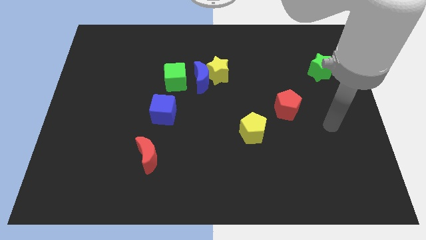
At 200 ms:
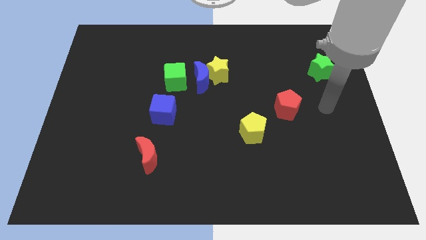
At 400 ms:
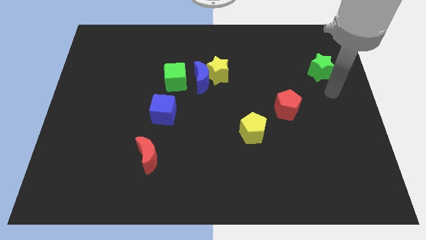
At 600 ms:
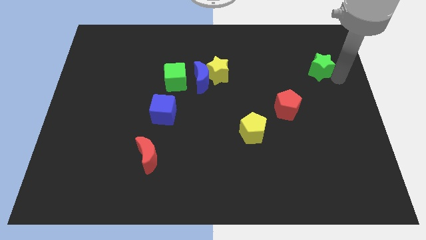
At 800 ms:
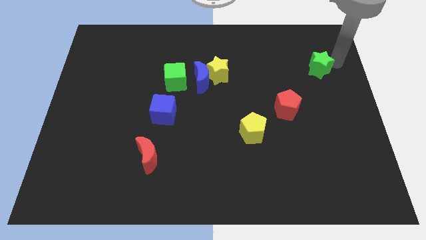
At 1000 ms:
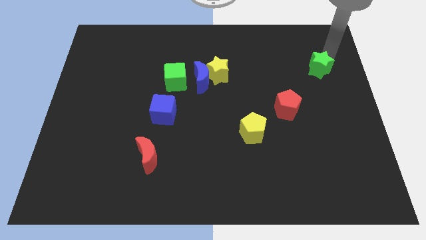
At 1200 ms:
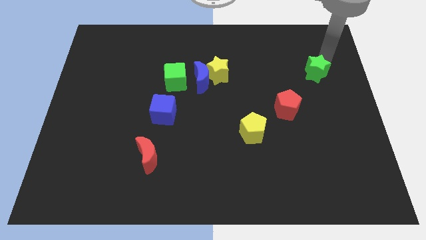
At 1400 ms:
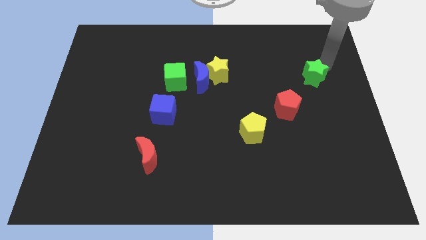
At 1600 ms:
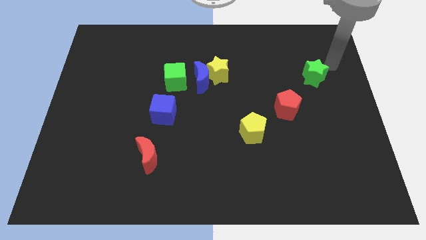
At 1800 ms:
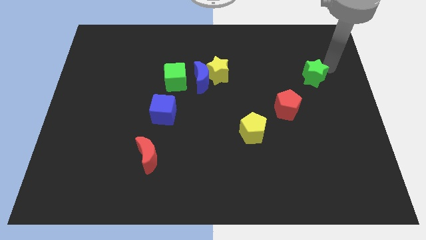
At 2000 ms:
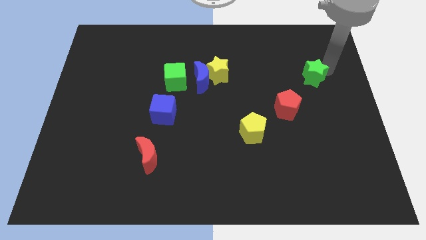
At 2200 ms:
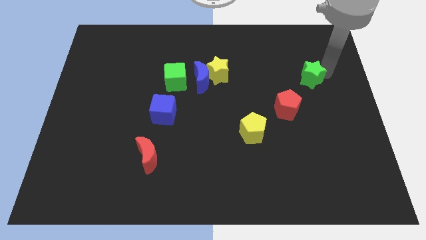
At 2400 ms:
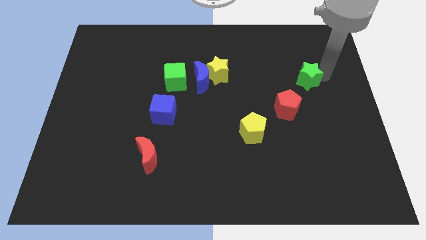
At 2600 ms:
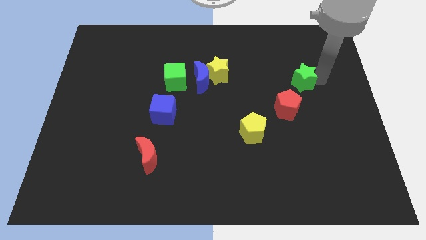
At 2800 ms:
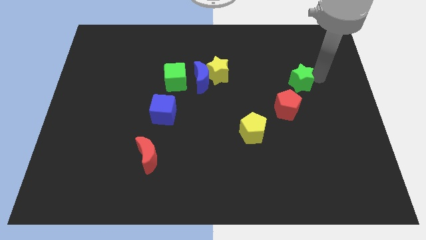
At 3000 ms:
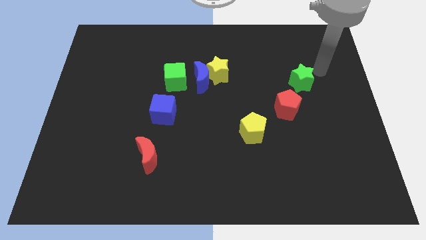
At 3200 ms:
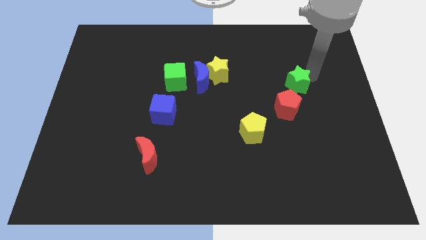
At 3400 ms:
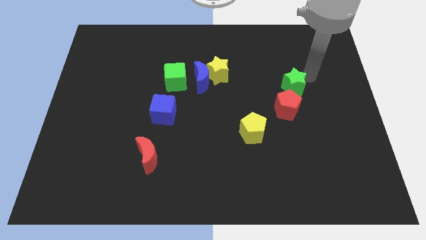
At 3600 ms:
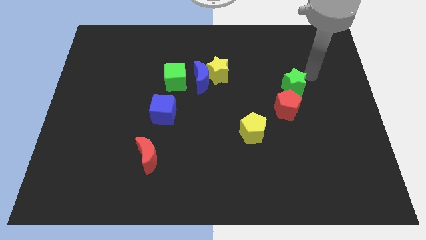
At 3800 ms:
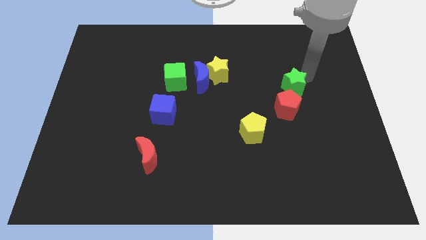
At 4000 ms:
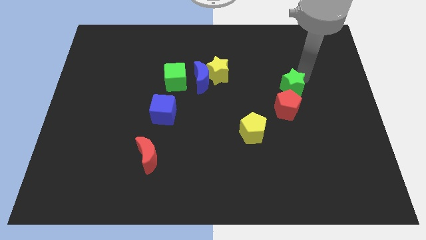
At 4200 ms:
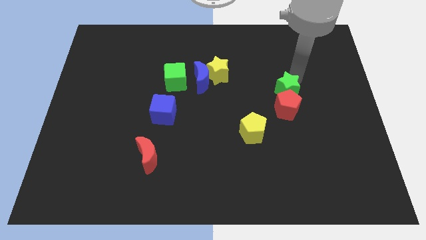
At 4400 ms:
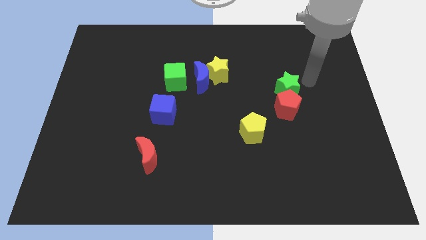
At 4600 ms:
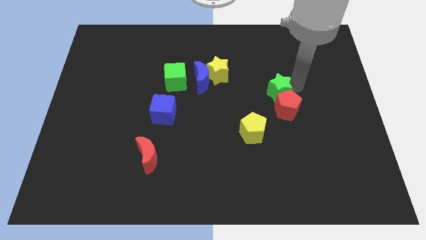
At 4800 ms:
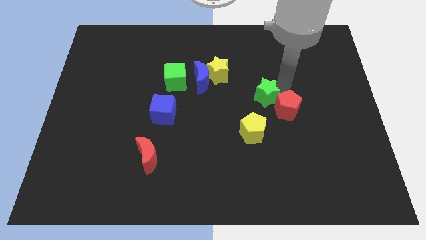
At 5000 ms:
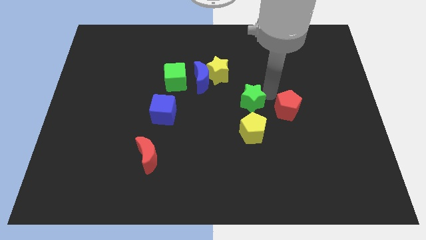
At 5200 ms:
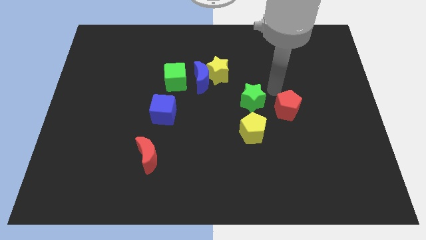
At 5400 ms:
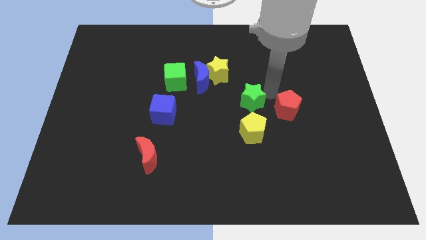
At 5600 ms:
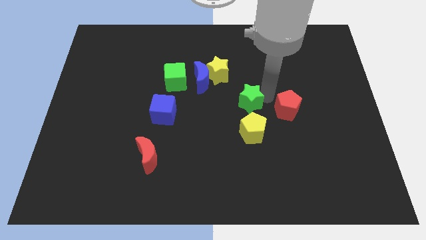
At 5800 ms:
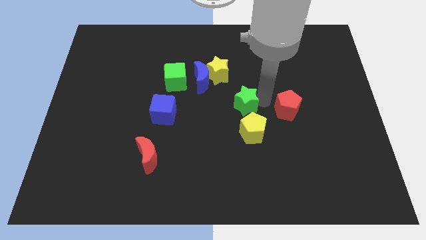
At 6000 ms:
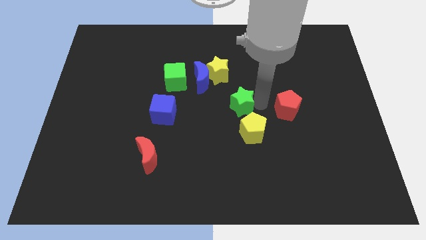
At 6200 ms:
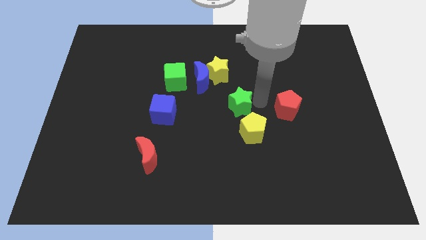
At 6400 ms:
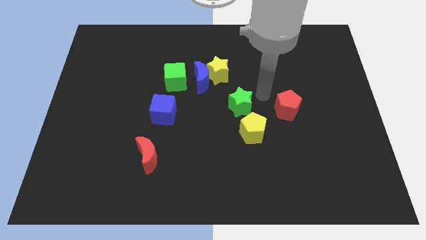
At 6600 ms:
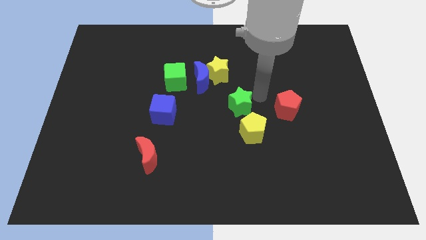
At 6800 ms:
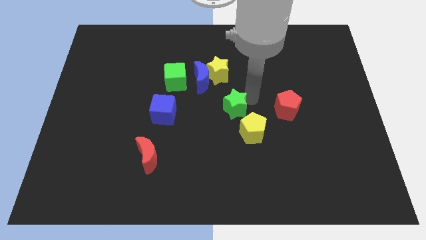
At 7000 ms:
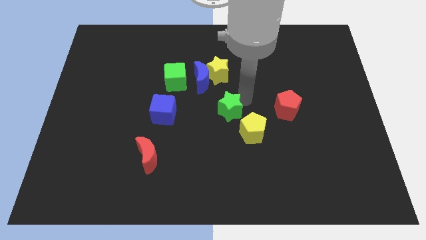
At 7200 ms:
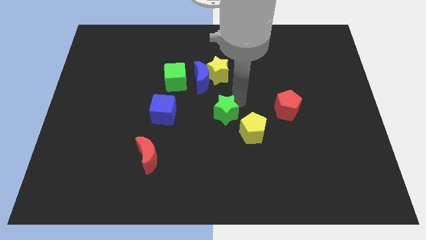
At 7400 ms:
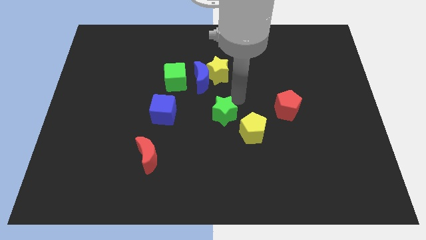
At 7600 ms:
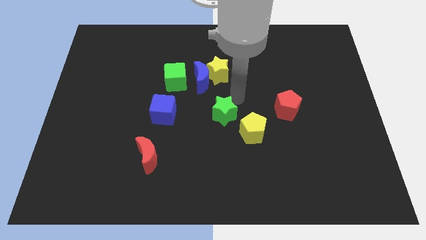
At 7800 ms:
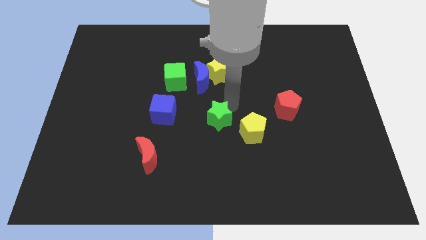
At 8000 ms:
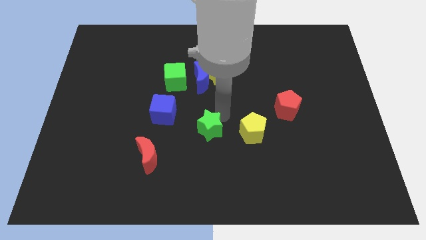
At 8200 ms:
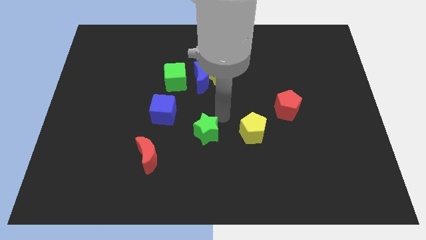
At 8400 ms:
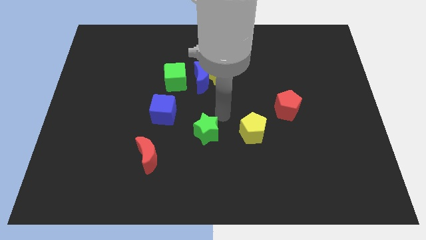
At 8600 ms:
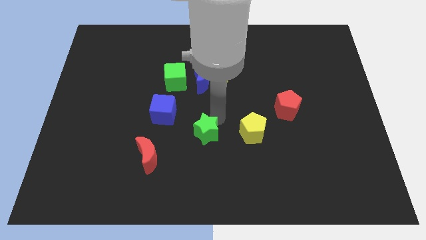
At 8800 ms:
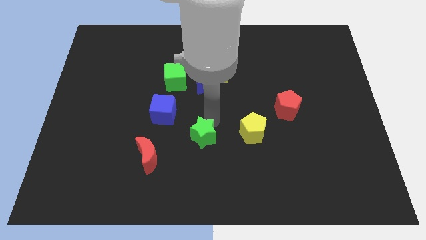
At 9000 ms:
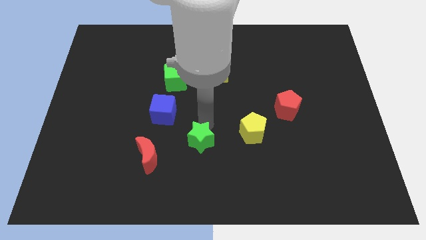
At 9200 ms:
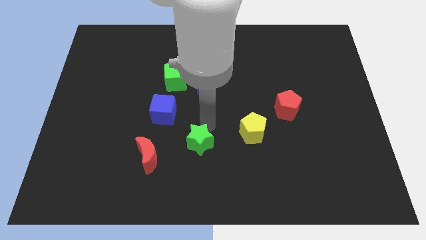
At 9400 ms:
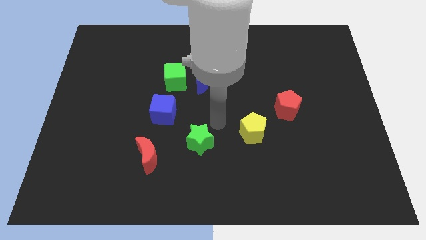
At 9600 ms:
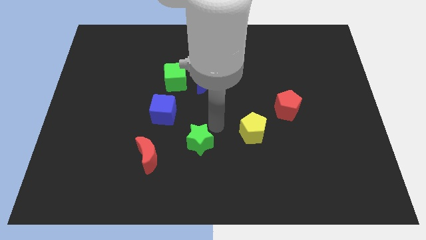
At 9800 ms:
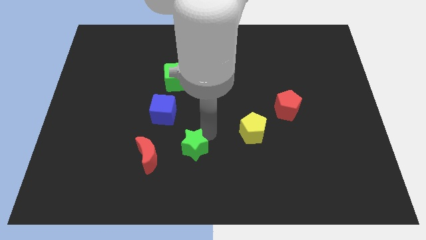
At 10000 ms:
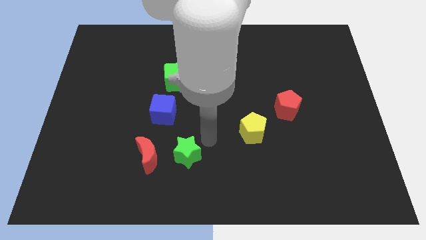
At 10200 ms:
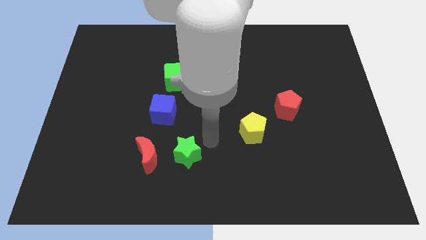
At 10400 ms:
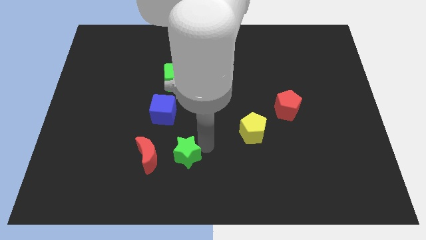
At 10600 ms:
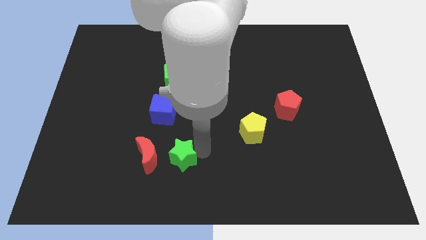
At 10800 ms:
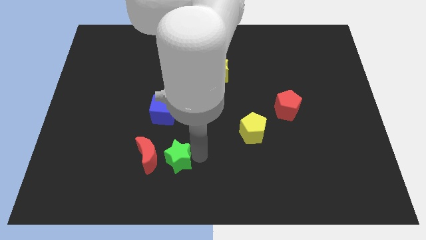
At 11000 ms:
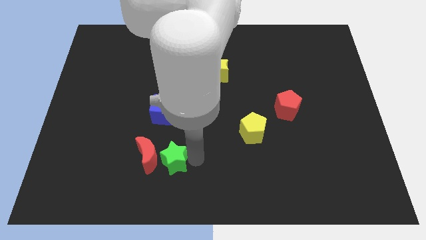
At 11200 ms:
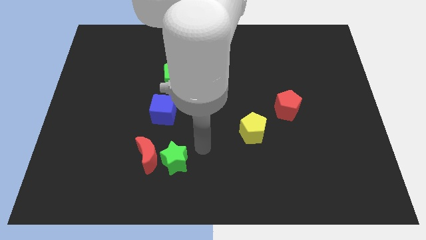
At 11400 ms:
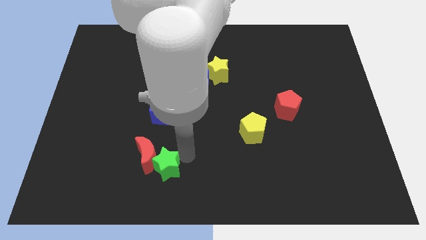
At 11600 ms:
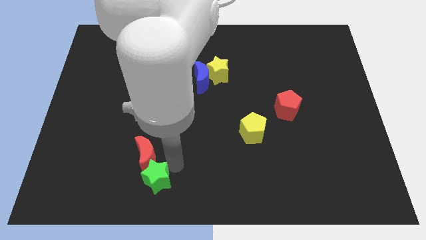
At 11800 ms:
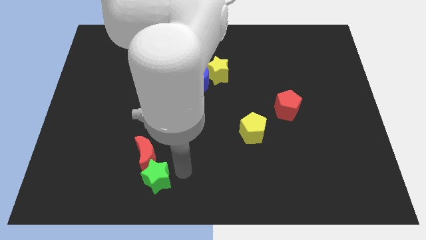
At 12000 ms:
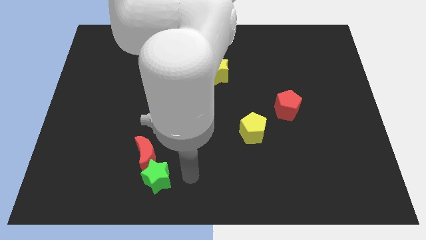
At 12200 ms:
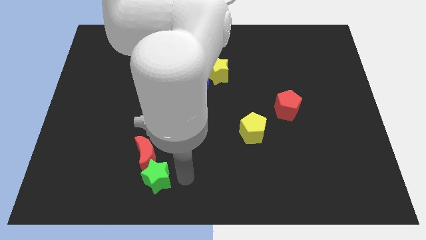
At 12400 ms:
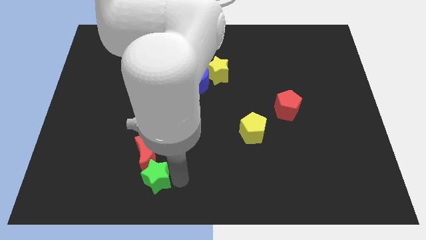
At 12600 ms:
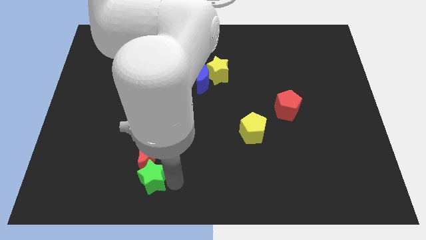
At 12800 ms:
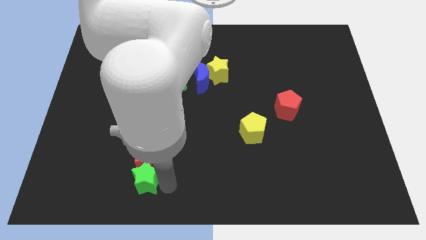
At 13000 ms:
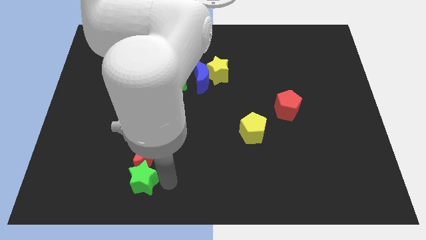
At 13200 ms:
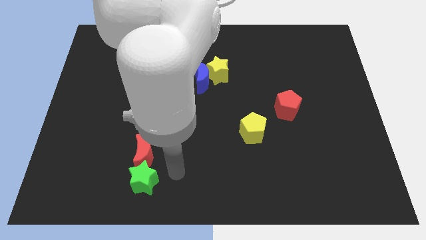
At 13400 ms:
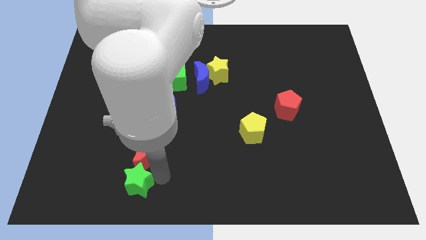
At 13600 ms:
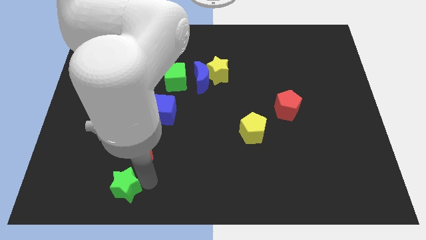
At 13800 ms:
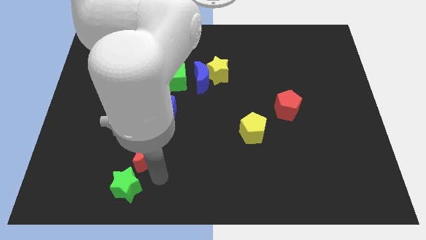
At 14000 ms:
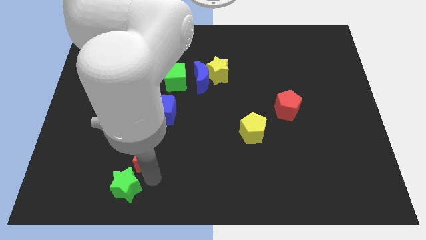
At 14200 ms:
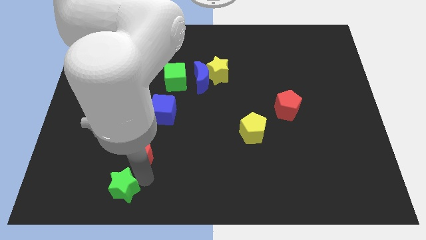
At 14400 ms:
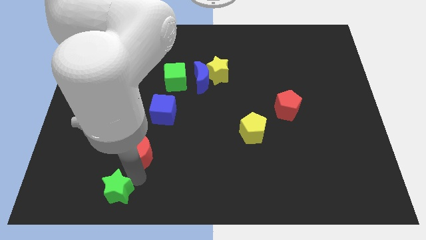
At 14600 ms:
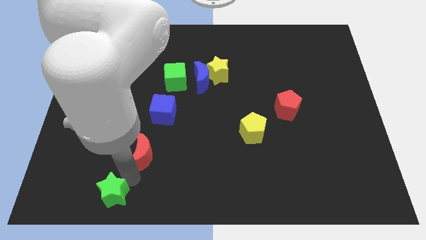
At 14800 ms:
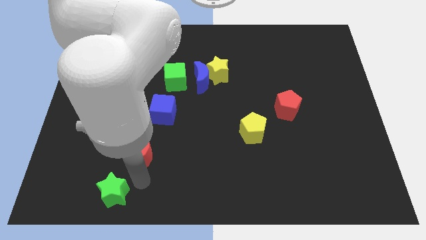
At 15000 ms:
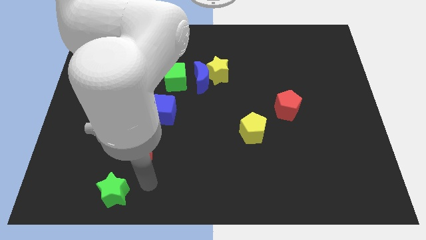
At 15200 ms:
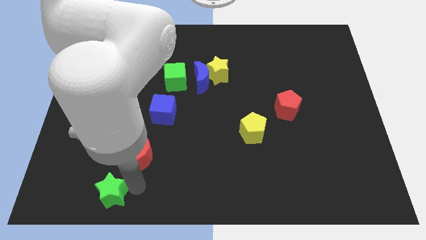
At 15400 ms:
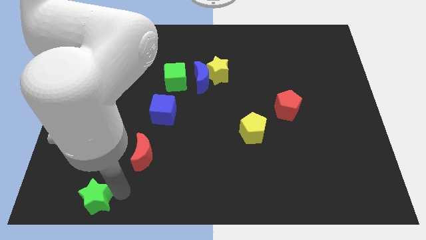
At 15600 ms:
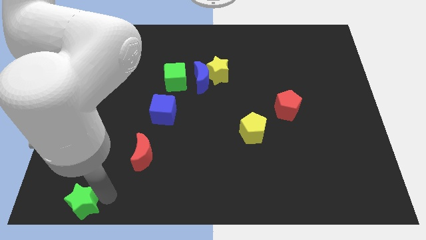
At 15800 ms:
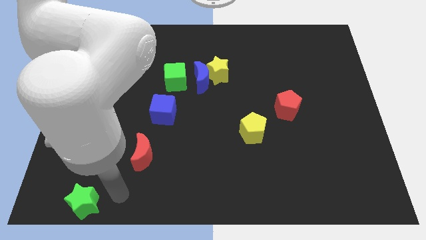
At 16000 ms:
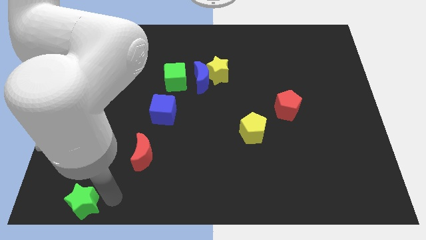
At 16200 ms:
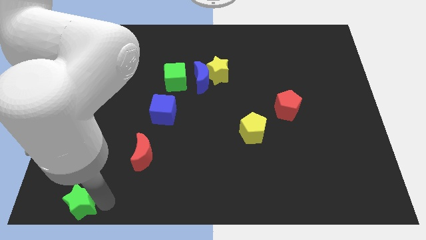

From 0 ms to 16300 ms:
push the green star to the bottom left
